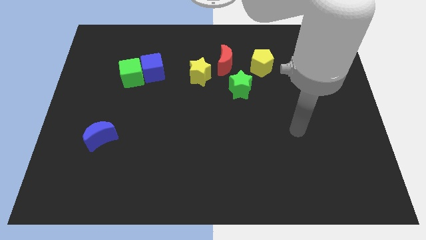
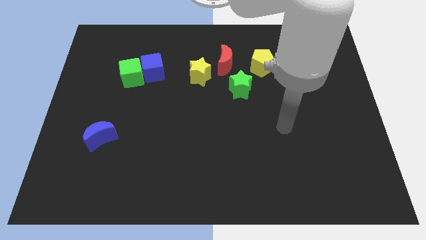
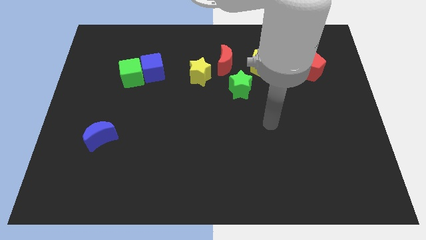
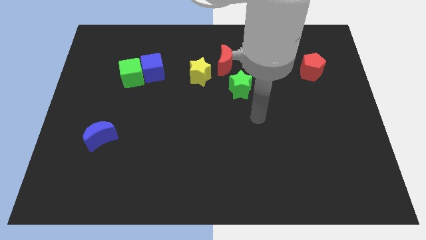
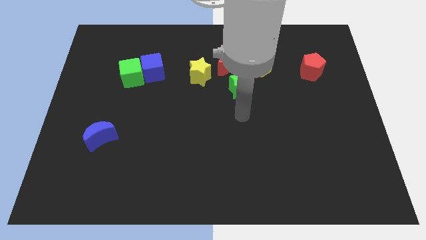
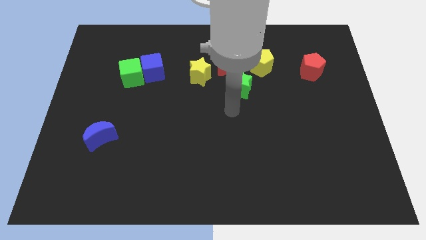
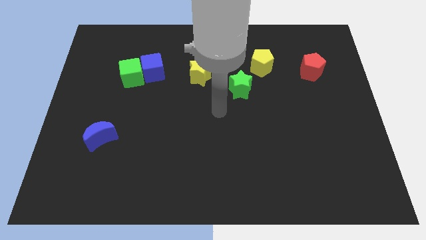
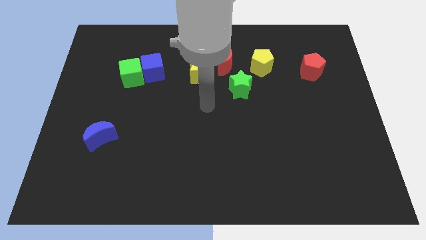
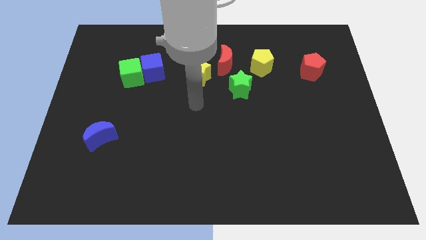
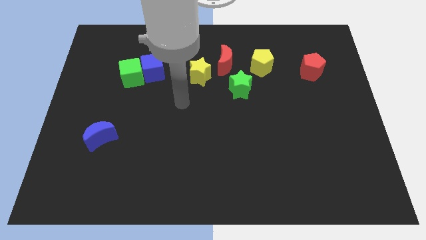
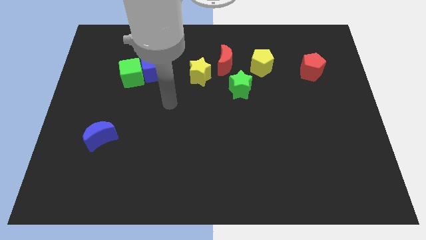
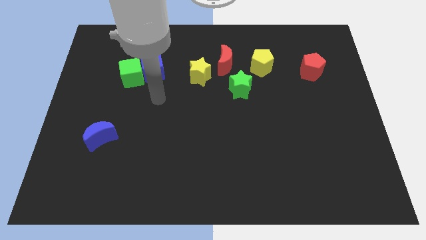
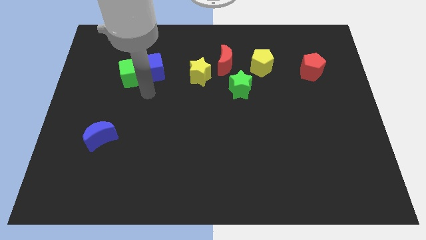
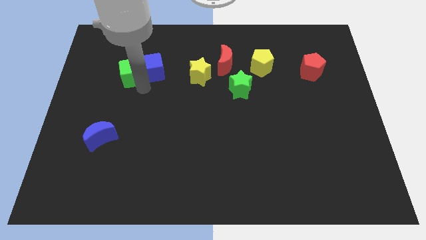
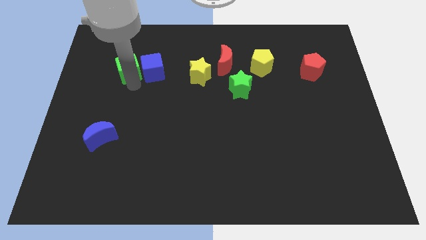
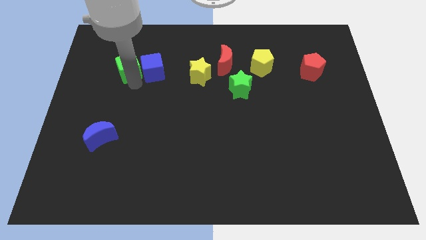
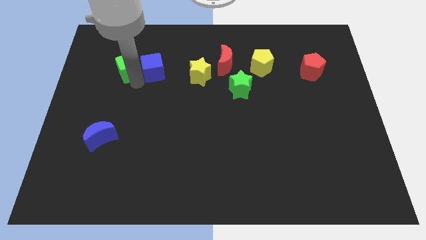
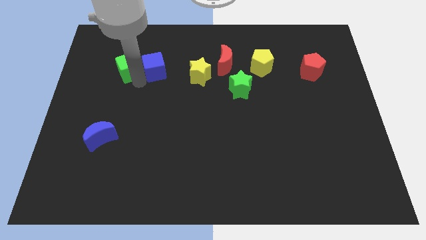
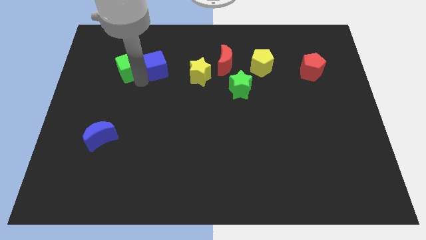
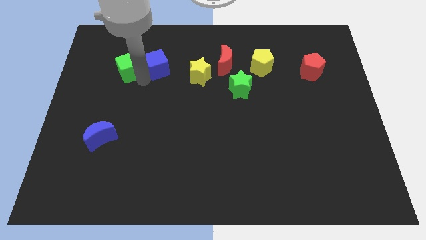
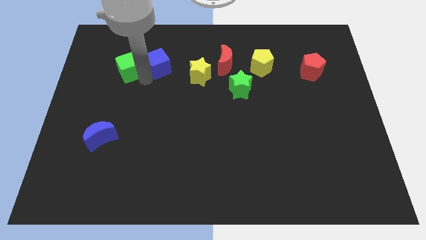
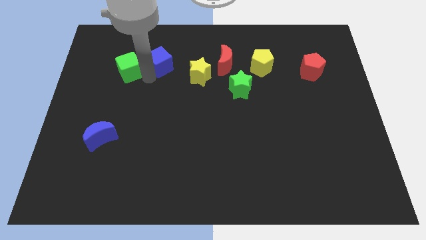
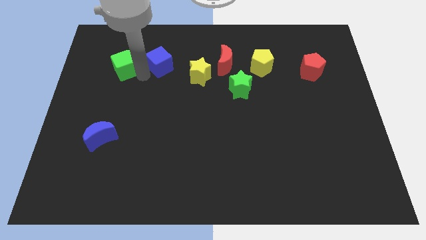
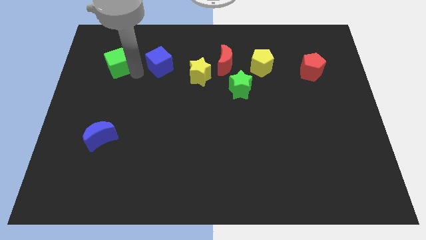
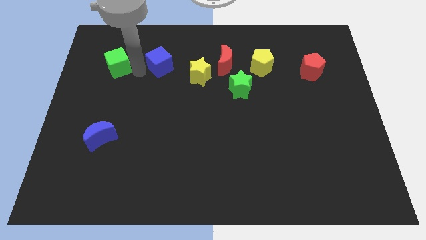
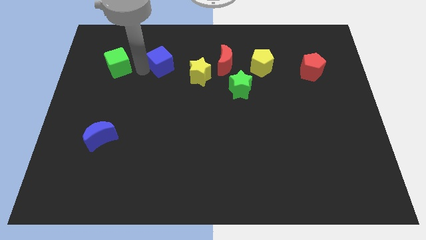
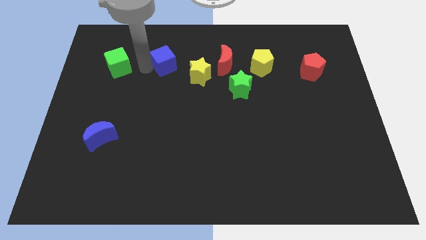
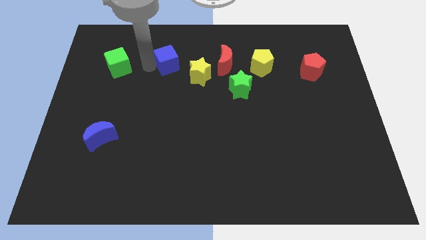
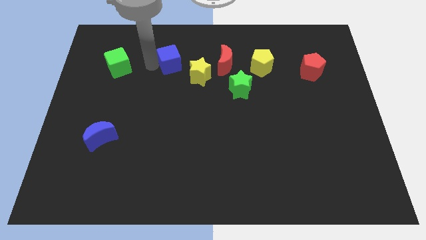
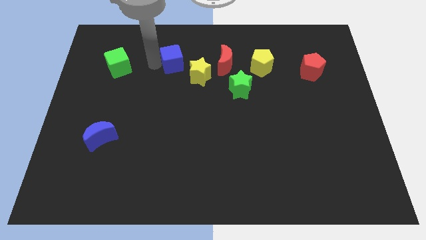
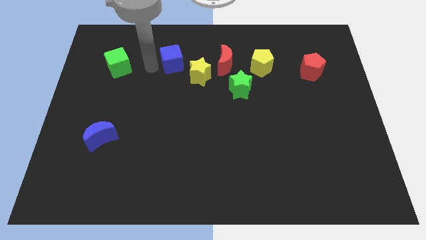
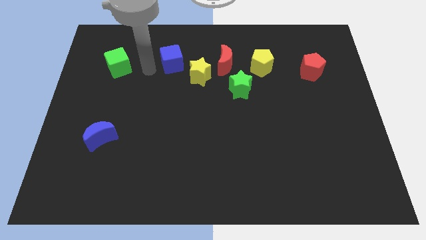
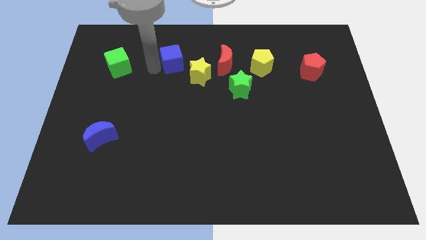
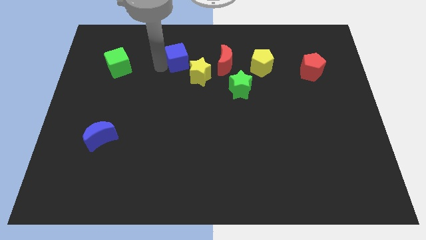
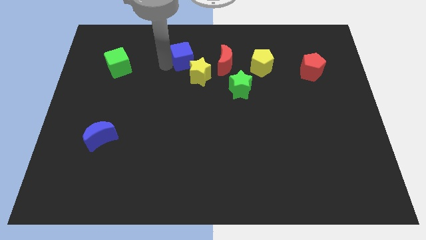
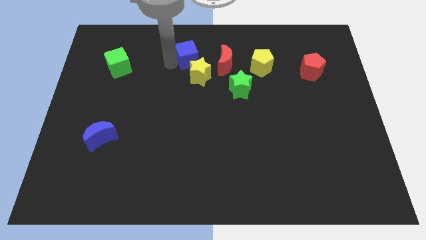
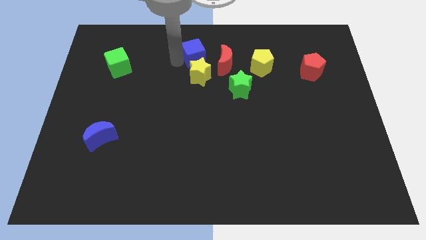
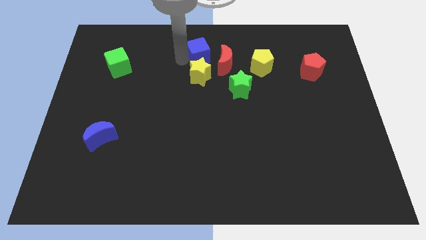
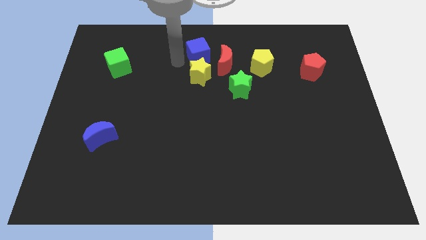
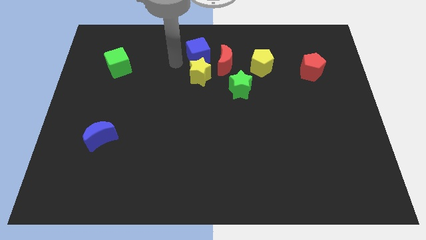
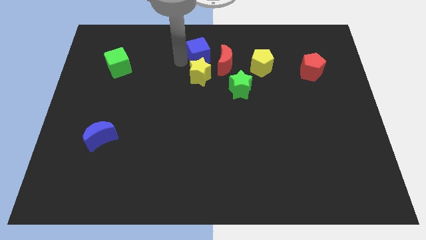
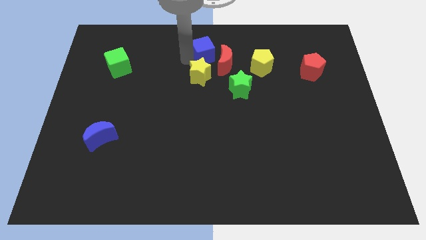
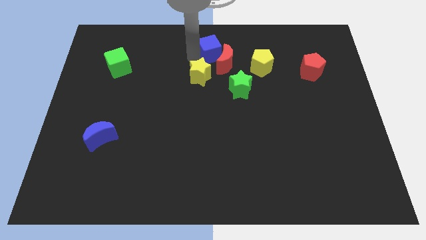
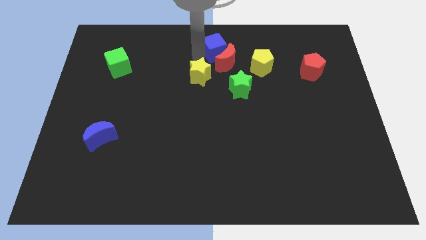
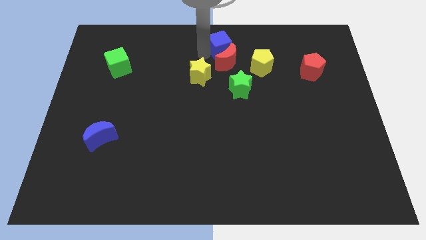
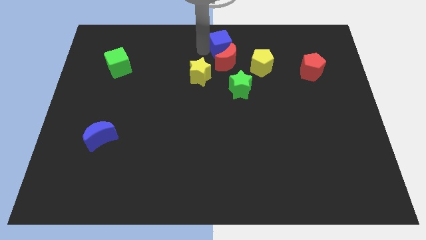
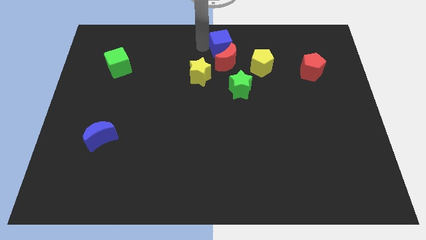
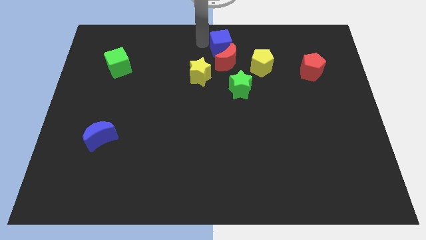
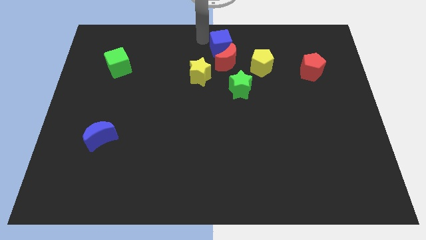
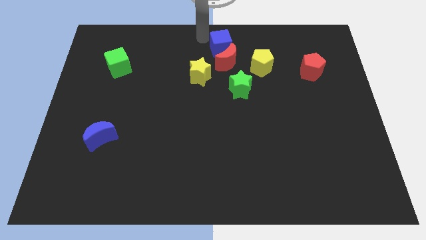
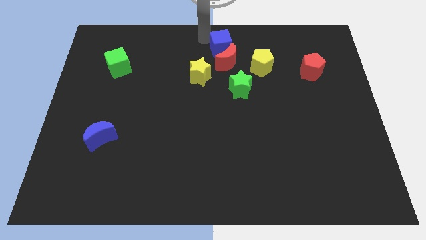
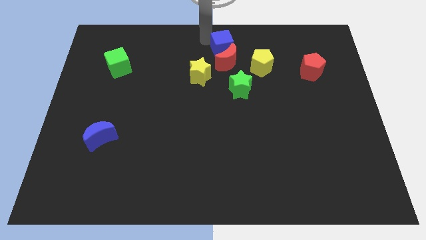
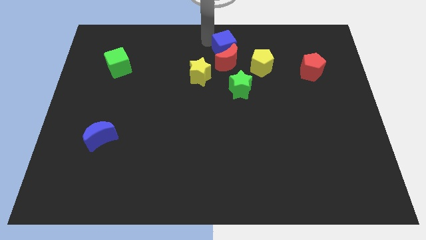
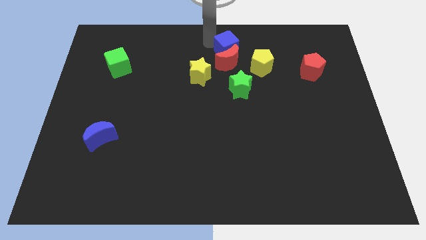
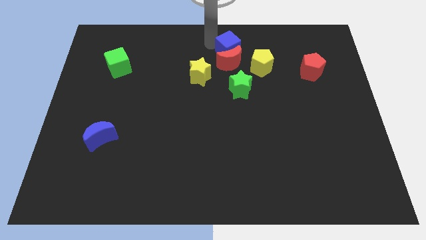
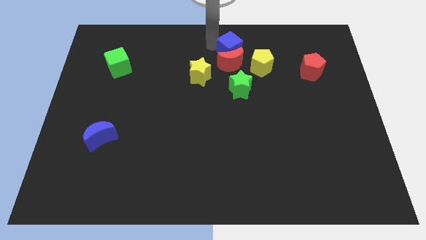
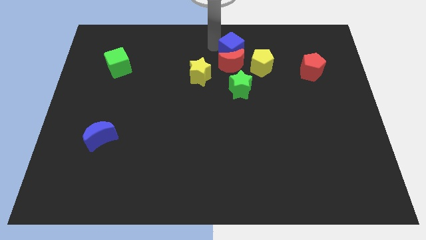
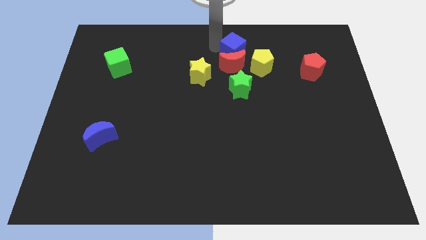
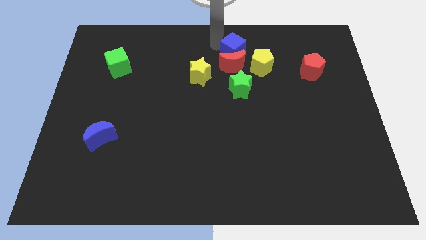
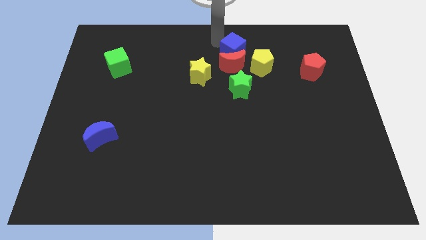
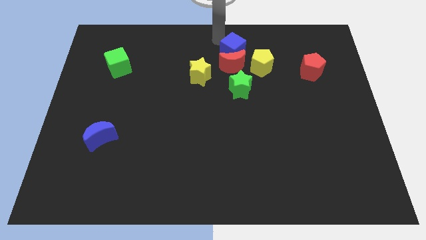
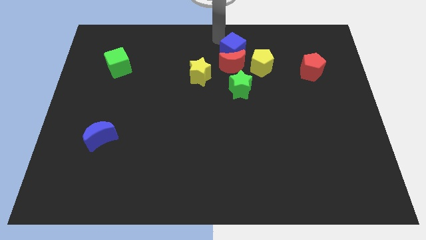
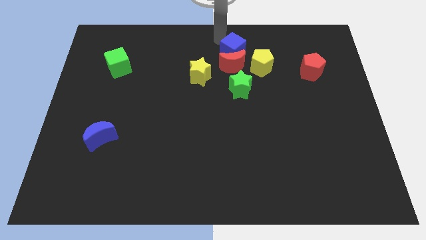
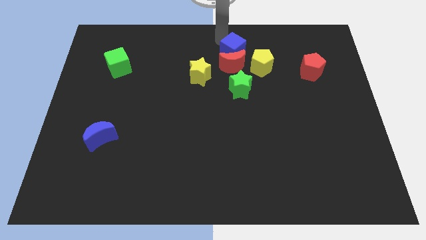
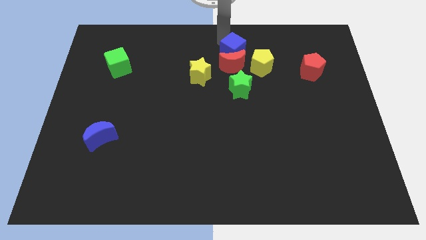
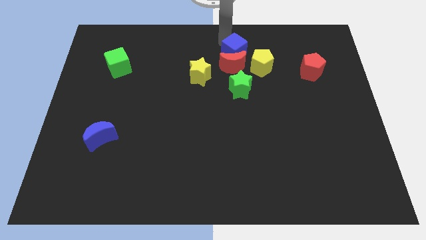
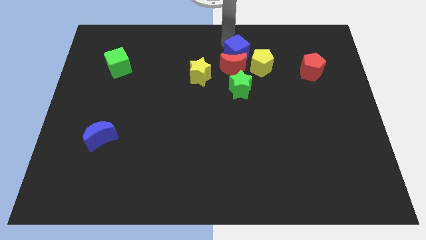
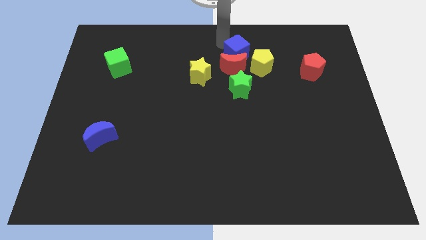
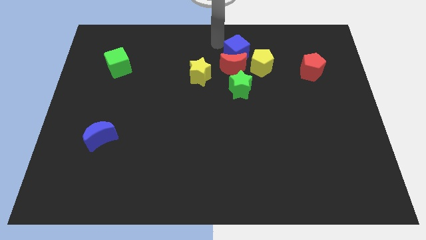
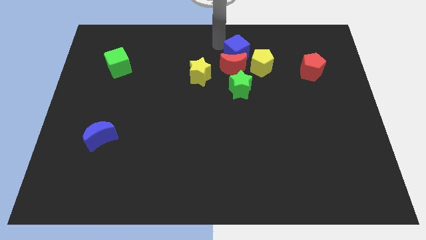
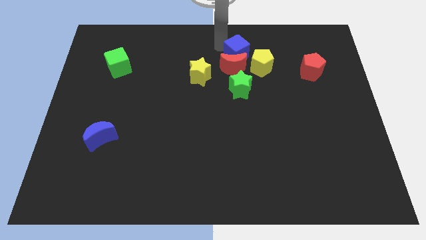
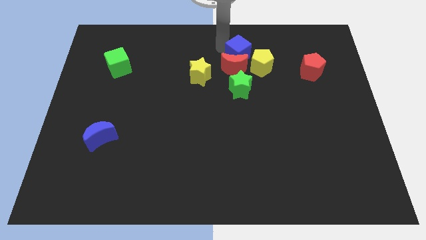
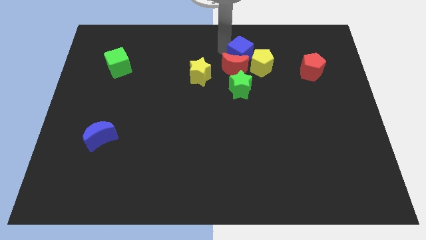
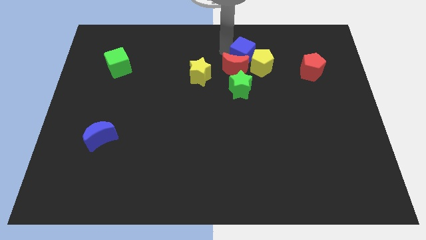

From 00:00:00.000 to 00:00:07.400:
slide the blue cube towards the yellow pentagon
